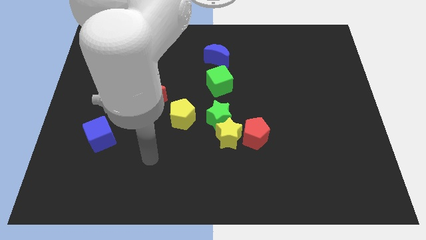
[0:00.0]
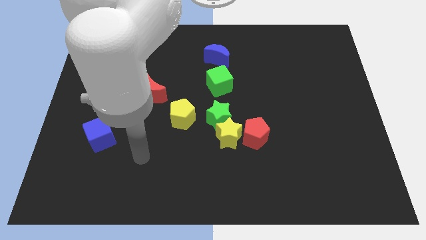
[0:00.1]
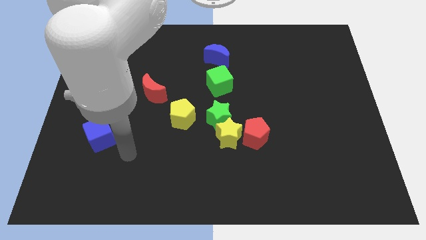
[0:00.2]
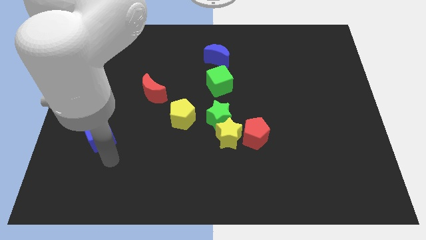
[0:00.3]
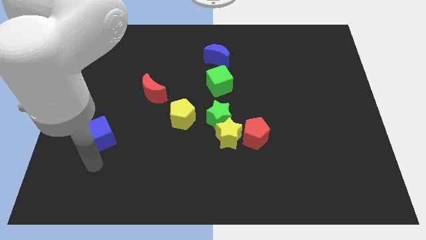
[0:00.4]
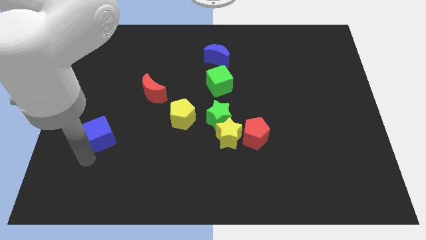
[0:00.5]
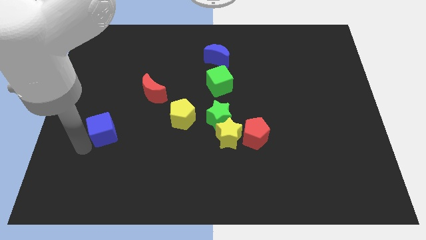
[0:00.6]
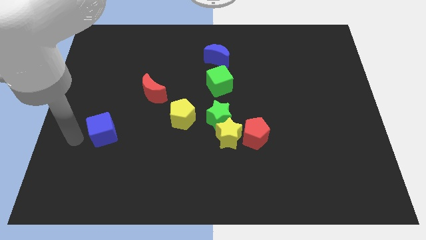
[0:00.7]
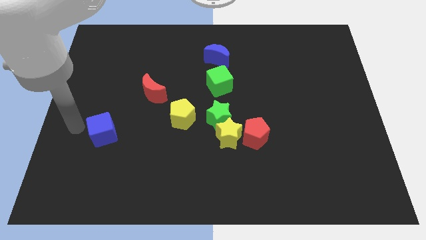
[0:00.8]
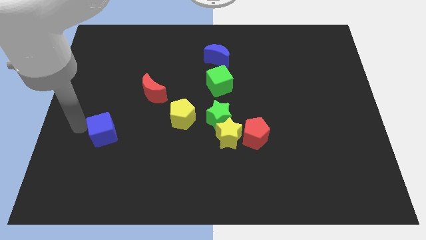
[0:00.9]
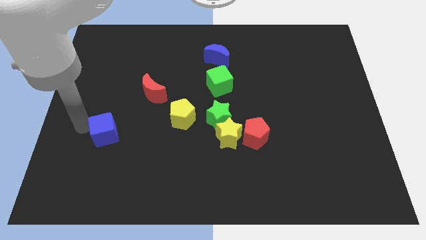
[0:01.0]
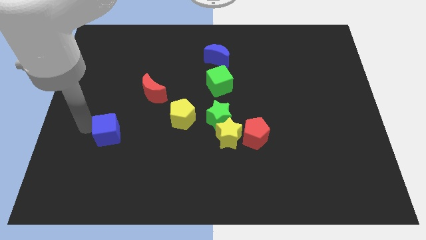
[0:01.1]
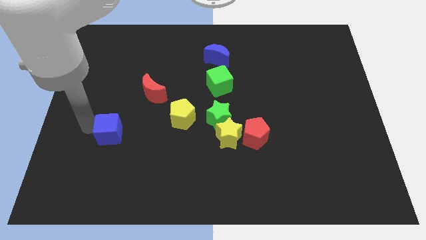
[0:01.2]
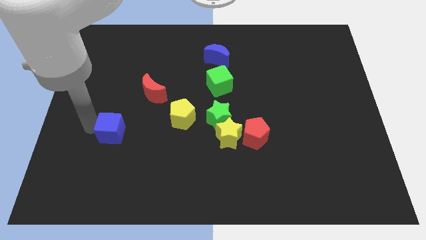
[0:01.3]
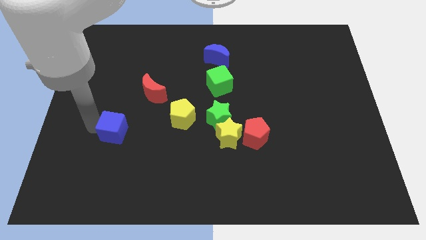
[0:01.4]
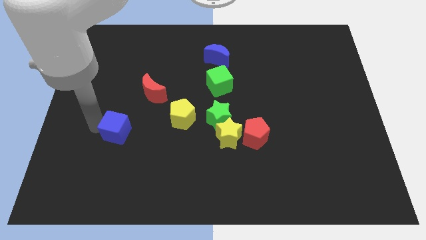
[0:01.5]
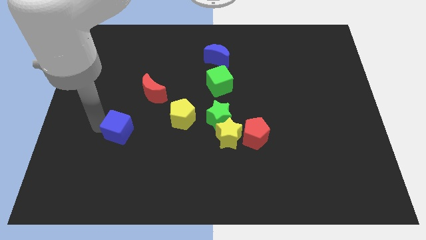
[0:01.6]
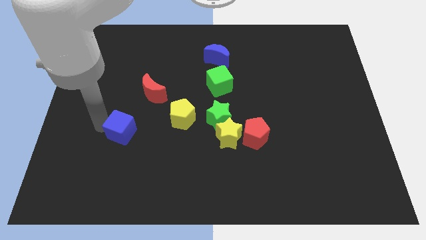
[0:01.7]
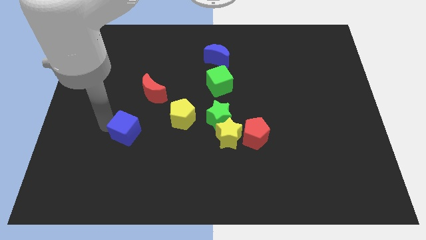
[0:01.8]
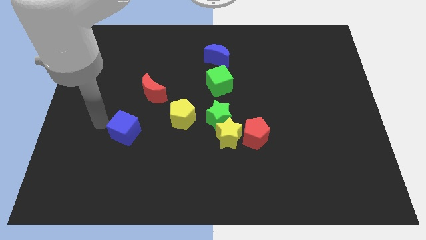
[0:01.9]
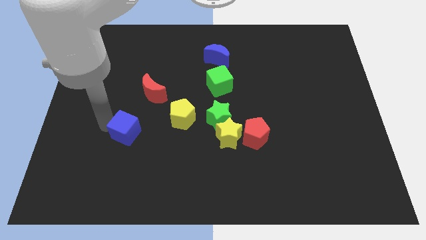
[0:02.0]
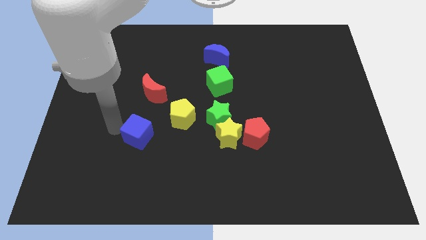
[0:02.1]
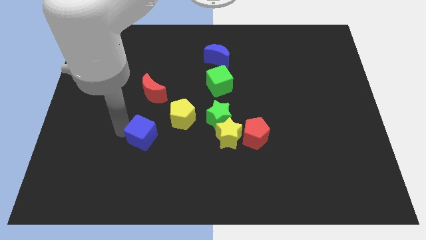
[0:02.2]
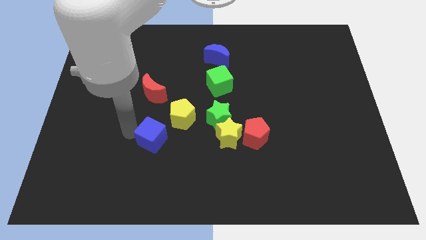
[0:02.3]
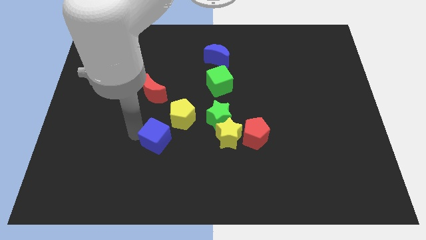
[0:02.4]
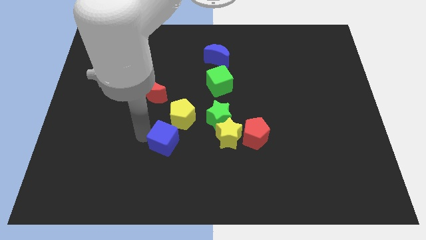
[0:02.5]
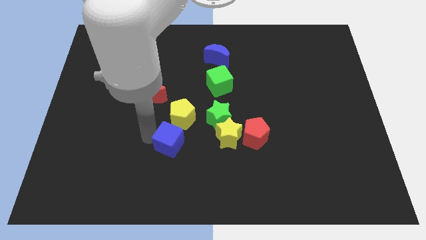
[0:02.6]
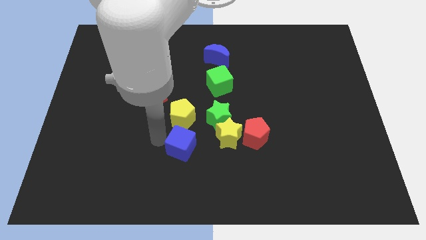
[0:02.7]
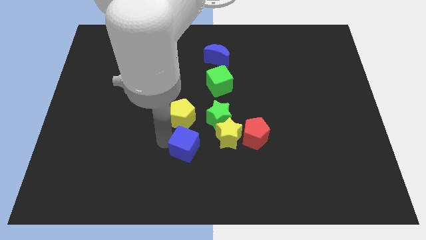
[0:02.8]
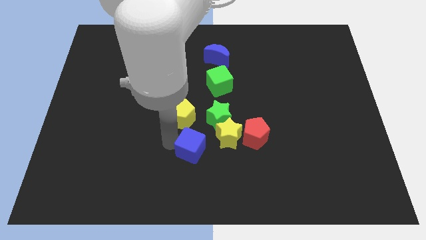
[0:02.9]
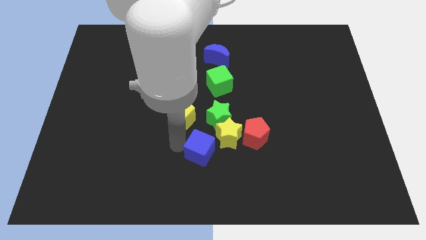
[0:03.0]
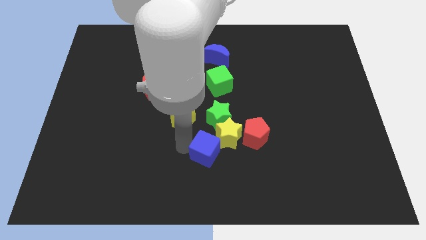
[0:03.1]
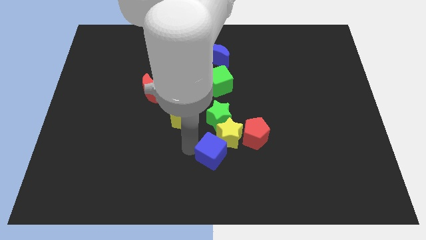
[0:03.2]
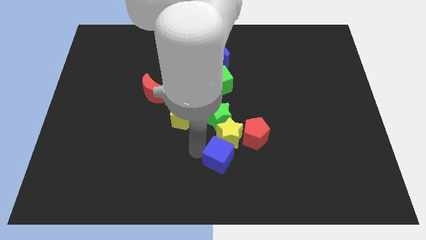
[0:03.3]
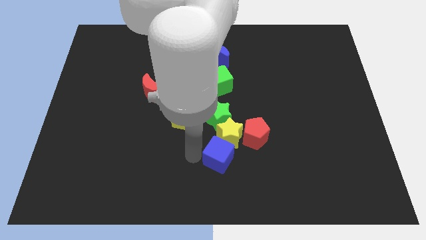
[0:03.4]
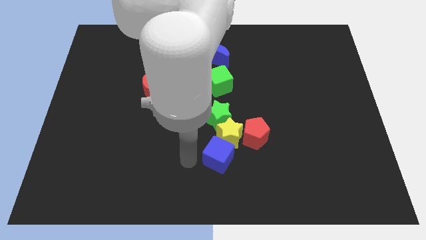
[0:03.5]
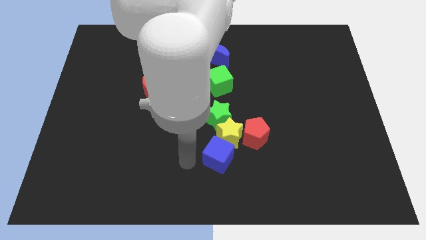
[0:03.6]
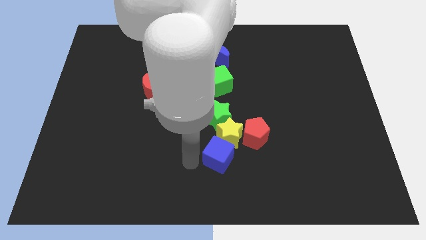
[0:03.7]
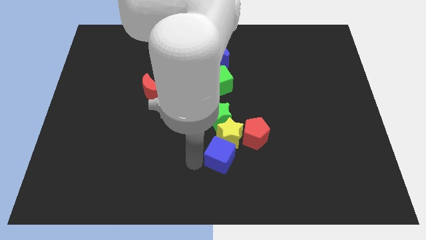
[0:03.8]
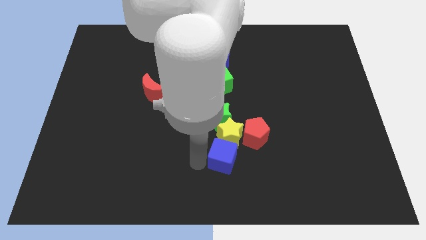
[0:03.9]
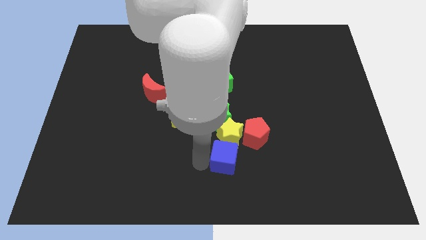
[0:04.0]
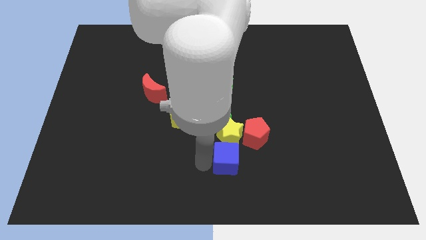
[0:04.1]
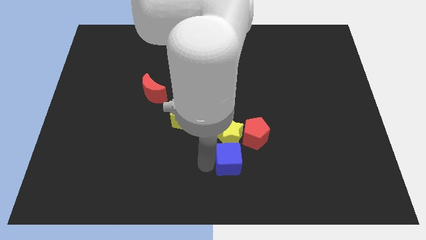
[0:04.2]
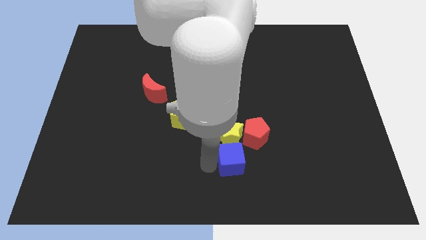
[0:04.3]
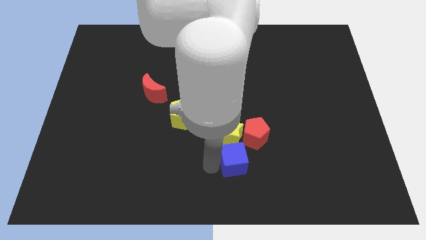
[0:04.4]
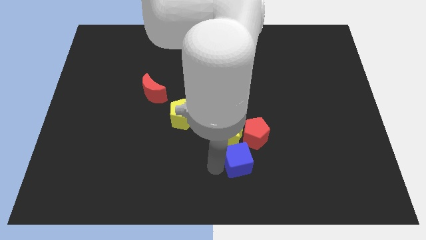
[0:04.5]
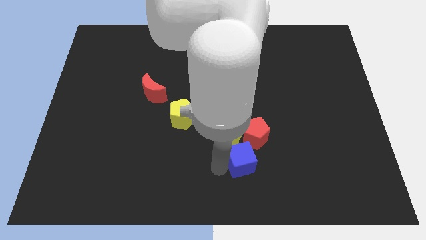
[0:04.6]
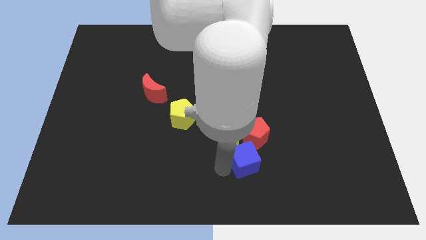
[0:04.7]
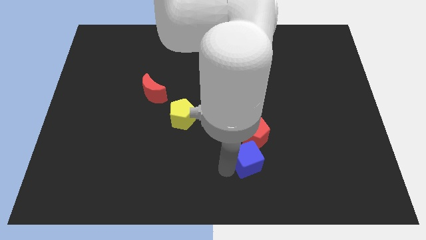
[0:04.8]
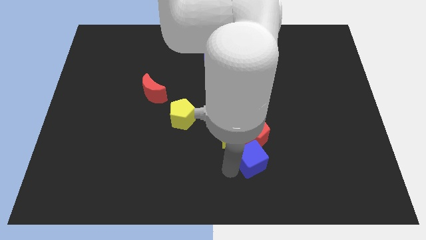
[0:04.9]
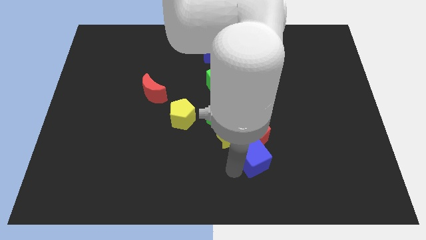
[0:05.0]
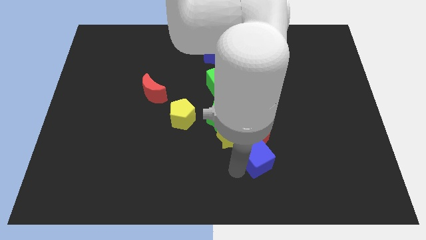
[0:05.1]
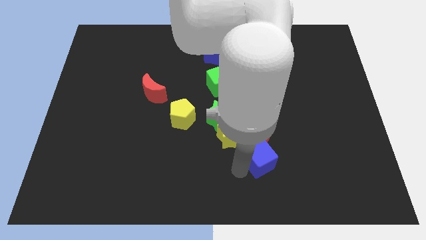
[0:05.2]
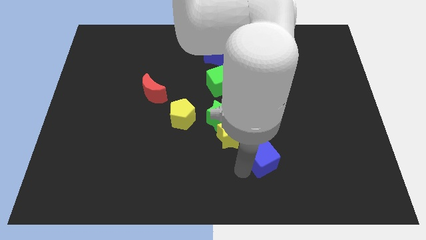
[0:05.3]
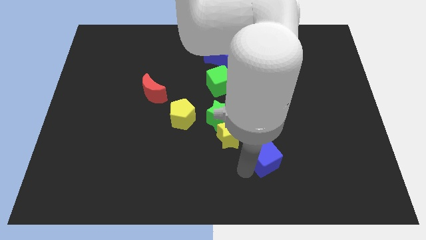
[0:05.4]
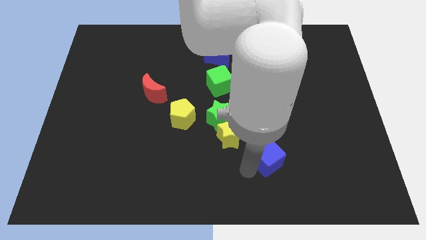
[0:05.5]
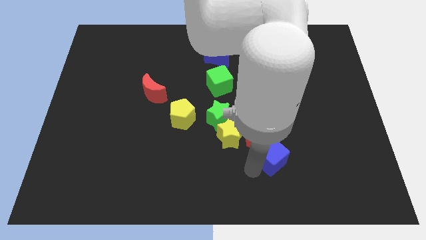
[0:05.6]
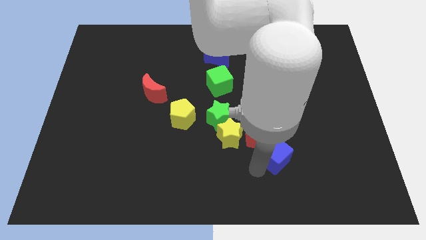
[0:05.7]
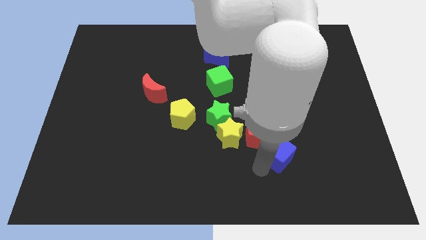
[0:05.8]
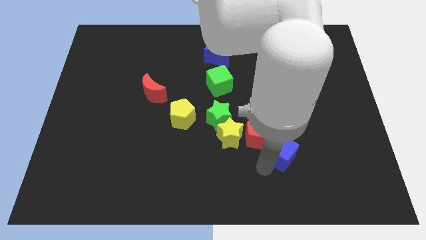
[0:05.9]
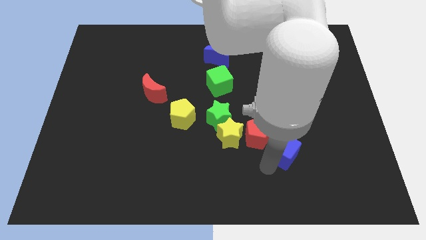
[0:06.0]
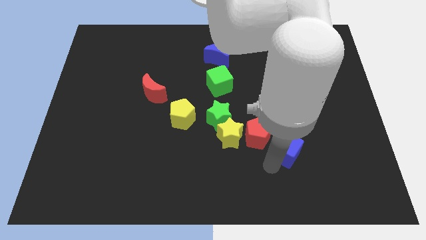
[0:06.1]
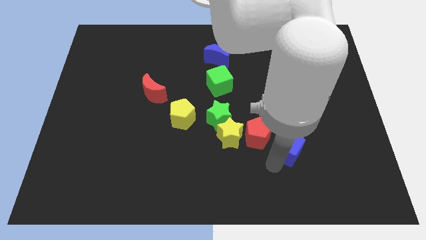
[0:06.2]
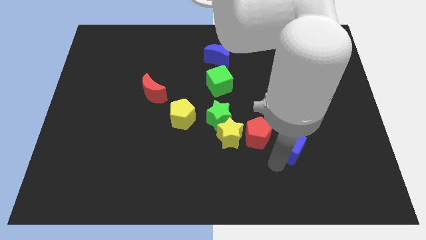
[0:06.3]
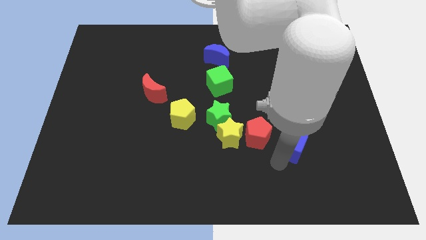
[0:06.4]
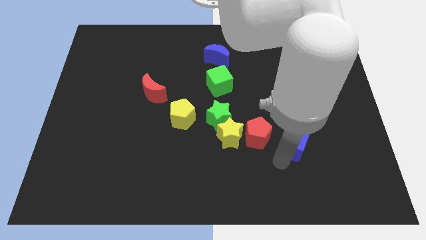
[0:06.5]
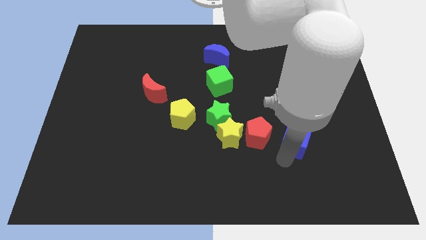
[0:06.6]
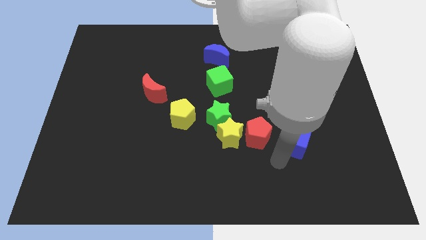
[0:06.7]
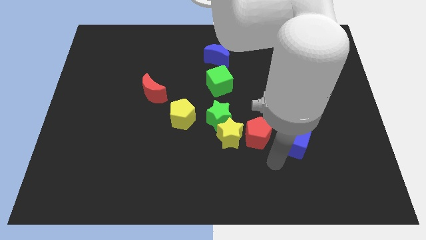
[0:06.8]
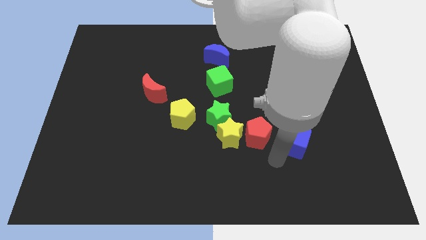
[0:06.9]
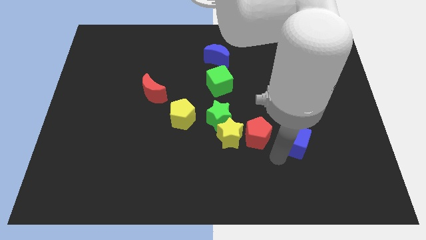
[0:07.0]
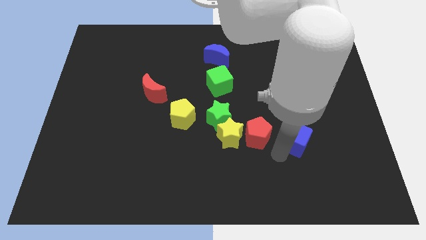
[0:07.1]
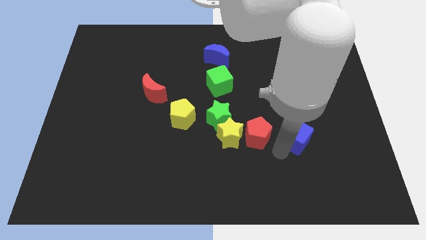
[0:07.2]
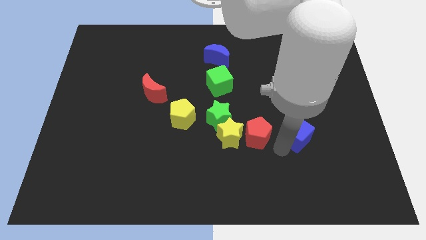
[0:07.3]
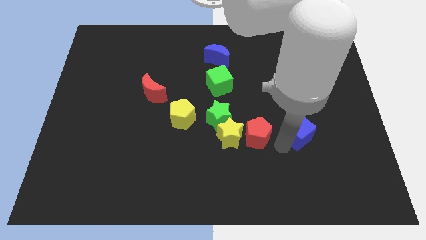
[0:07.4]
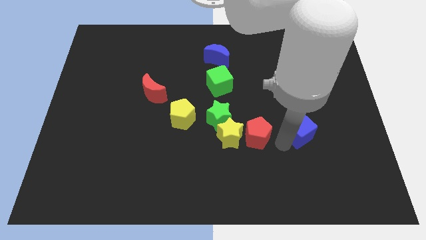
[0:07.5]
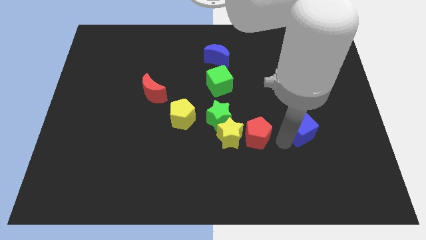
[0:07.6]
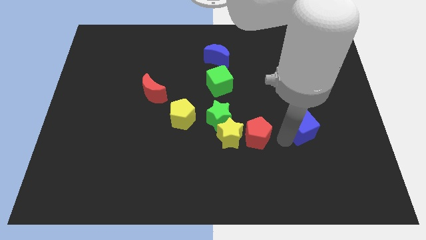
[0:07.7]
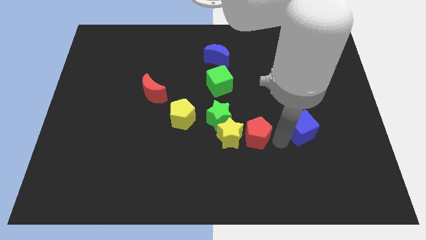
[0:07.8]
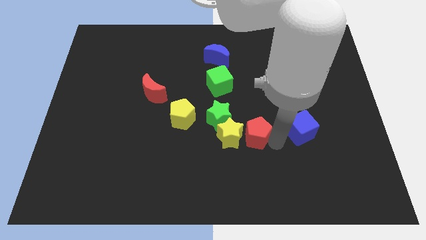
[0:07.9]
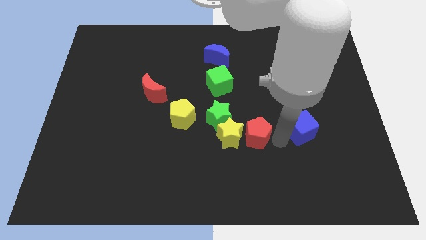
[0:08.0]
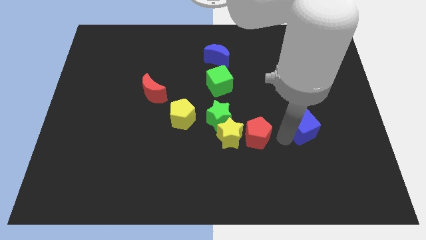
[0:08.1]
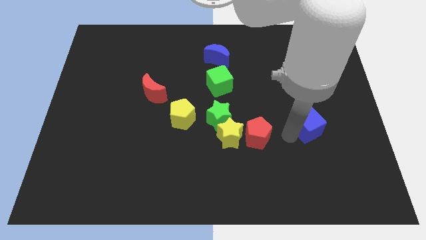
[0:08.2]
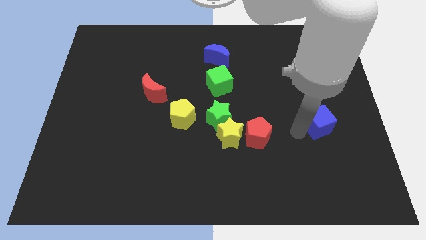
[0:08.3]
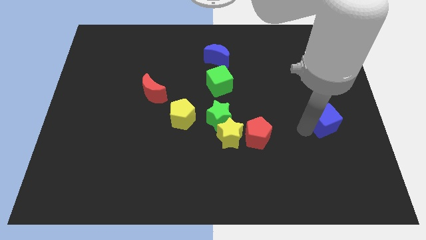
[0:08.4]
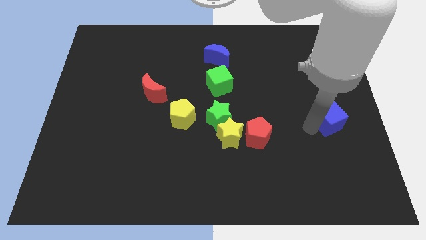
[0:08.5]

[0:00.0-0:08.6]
move the blue cube to the right side of the board
